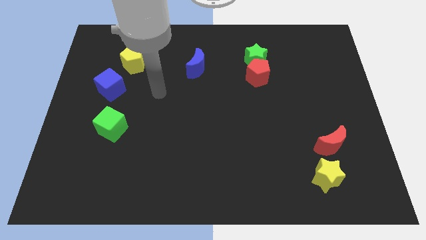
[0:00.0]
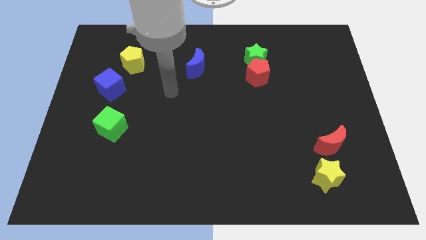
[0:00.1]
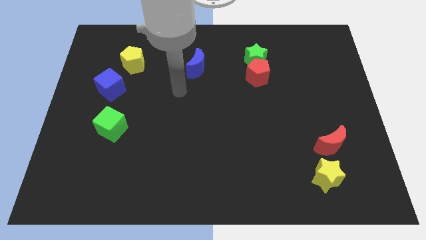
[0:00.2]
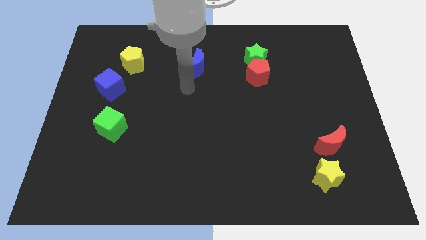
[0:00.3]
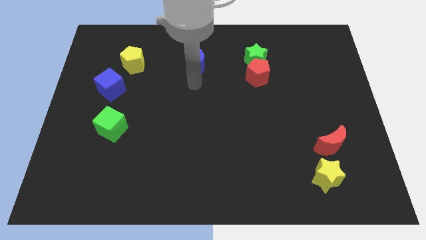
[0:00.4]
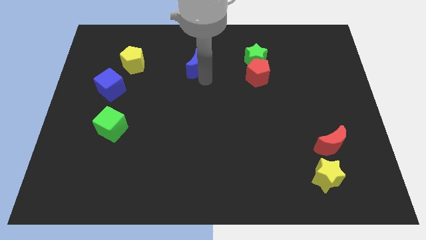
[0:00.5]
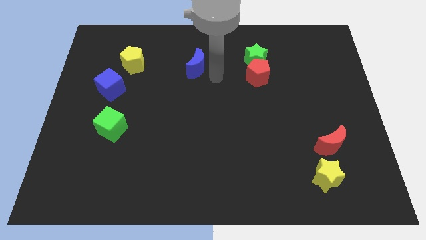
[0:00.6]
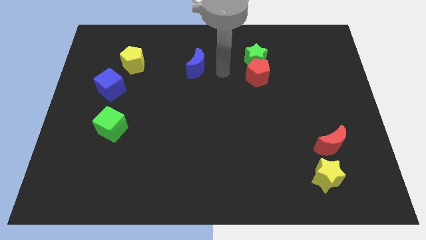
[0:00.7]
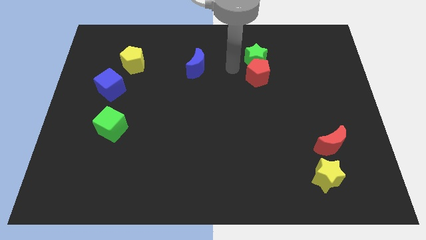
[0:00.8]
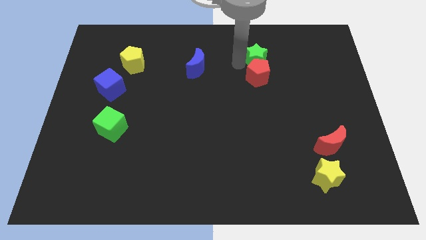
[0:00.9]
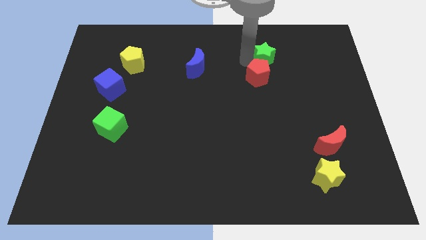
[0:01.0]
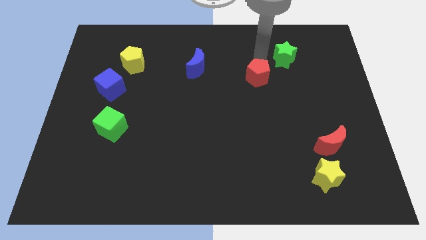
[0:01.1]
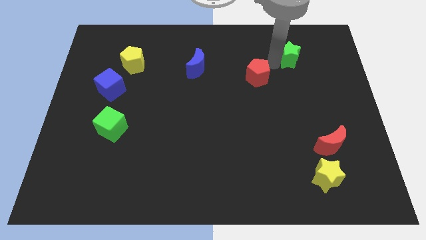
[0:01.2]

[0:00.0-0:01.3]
pull the red pentagon apart from the green star

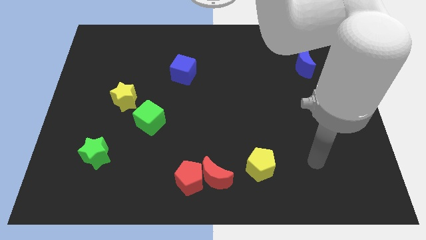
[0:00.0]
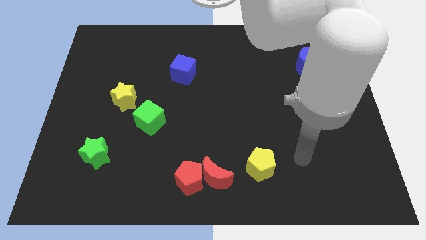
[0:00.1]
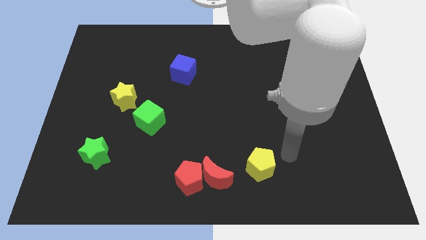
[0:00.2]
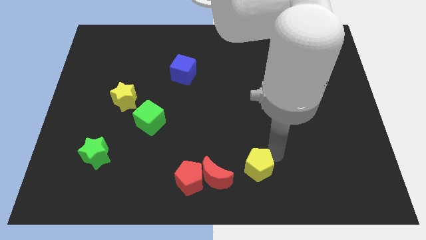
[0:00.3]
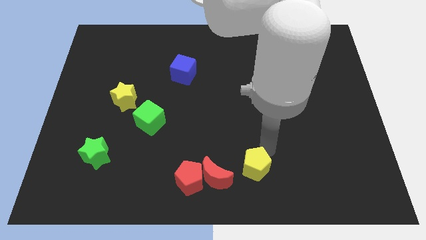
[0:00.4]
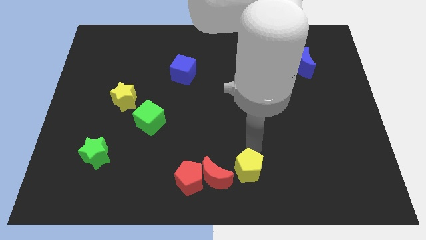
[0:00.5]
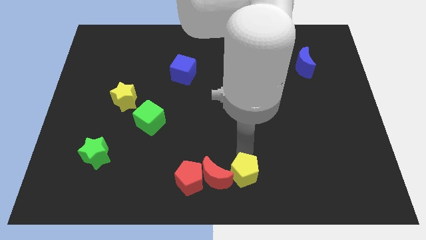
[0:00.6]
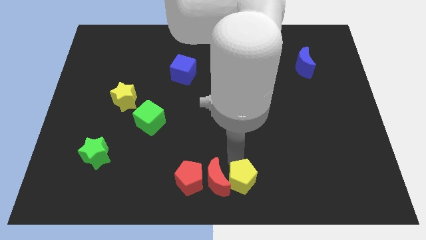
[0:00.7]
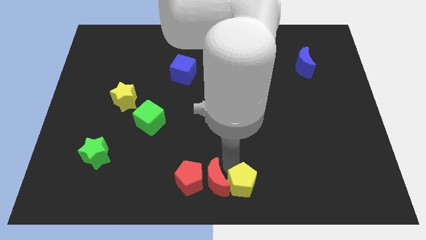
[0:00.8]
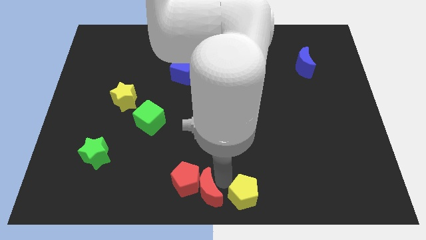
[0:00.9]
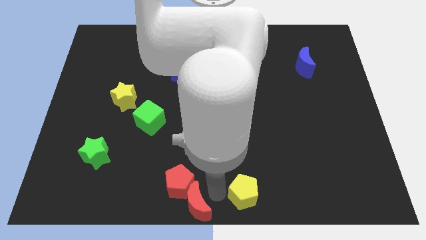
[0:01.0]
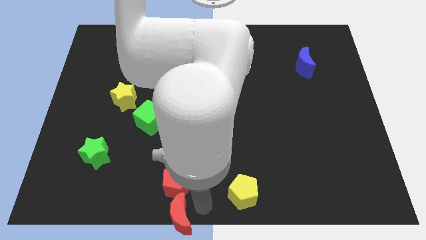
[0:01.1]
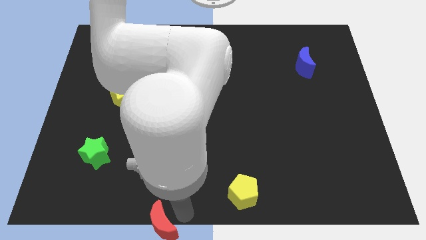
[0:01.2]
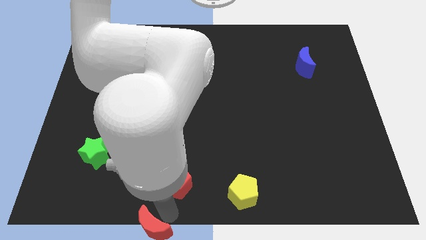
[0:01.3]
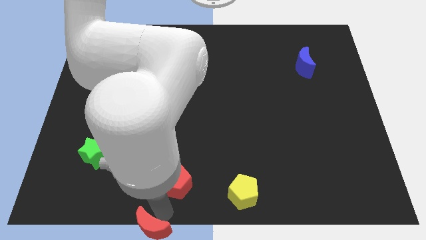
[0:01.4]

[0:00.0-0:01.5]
separate the red pentagon from the red moon

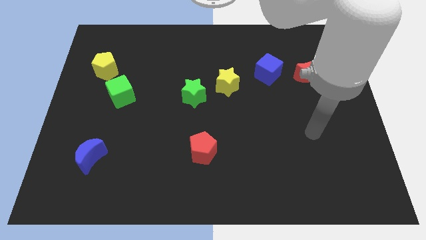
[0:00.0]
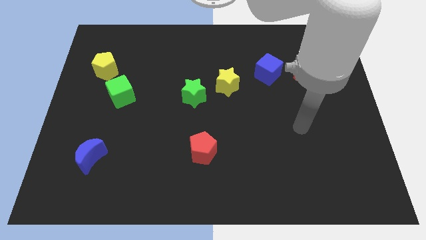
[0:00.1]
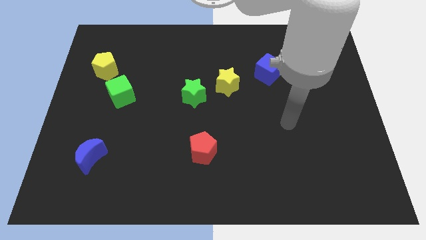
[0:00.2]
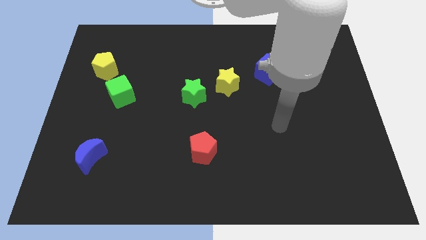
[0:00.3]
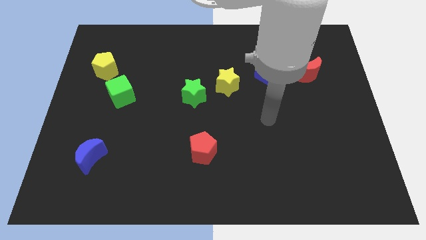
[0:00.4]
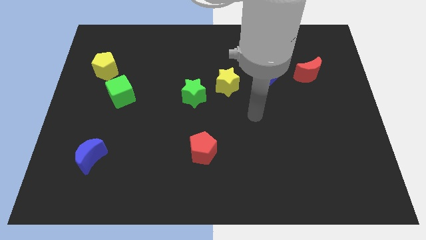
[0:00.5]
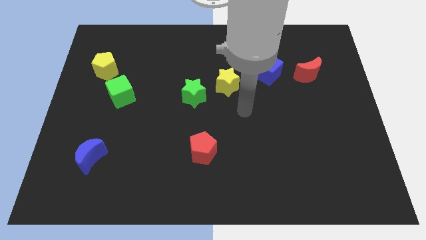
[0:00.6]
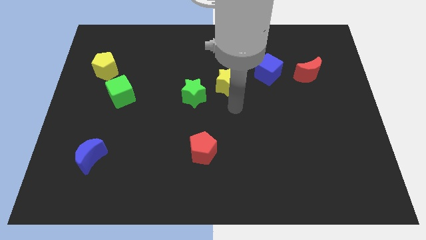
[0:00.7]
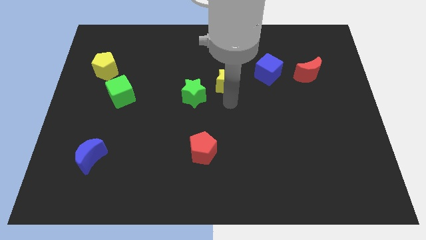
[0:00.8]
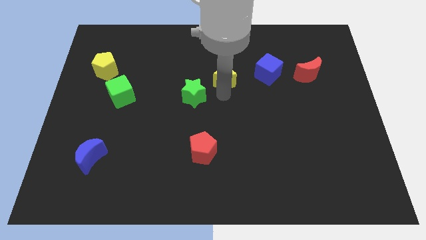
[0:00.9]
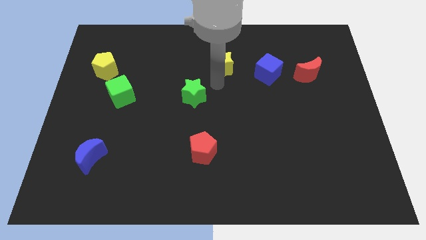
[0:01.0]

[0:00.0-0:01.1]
move the green star away from the yellow star

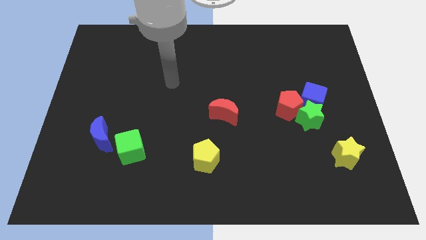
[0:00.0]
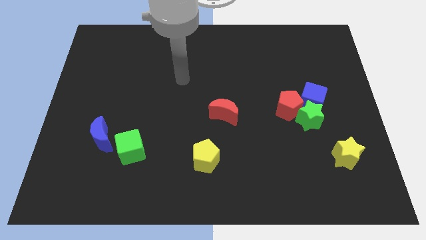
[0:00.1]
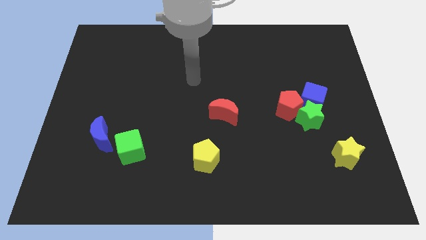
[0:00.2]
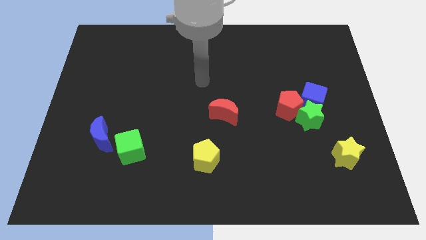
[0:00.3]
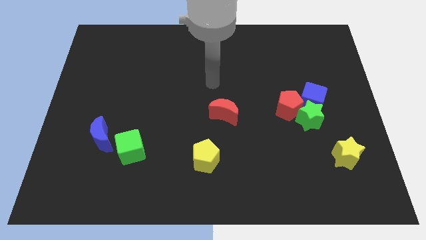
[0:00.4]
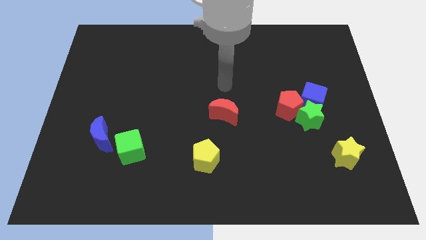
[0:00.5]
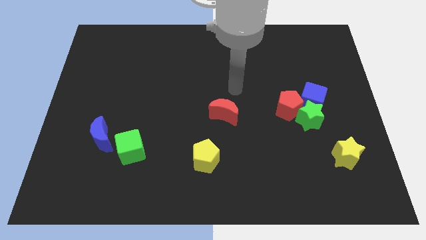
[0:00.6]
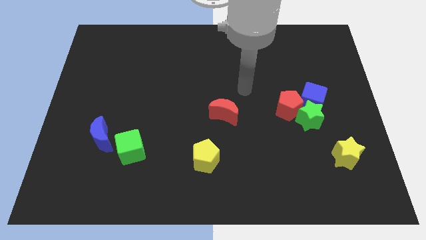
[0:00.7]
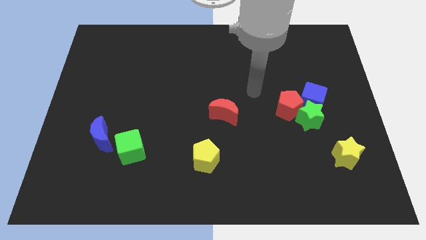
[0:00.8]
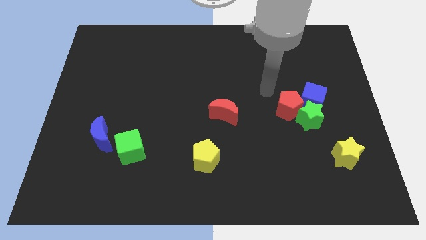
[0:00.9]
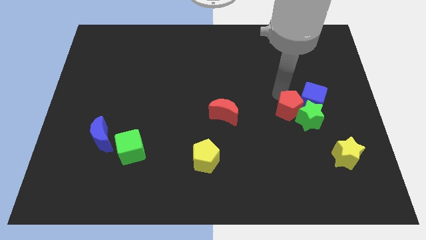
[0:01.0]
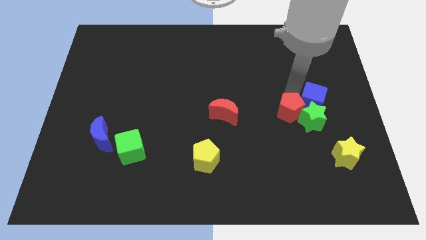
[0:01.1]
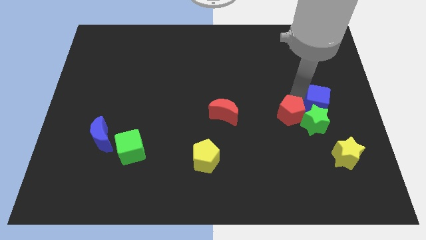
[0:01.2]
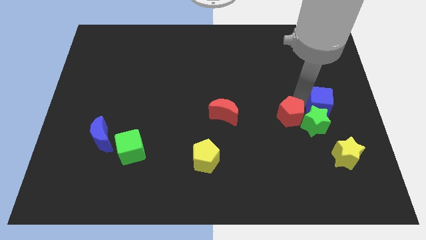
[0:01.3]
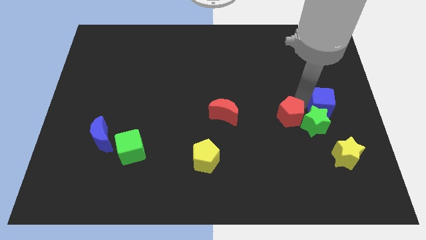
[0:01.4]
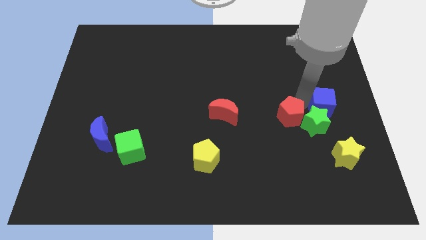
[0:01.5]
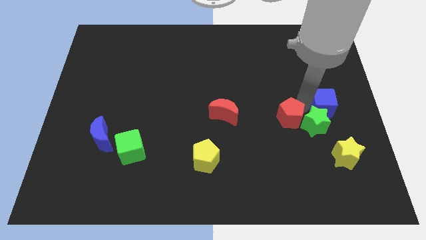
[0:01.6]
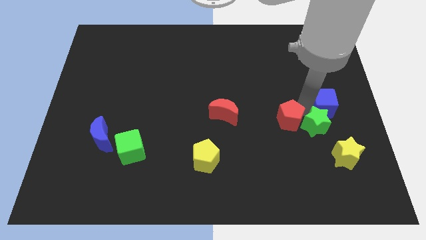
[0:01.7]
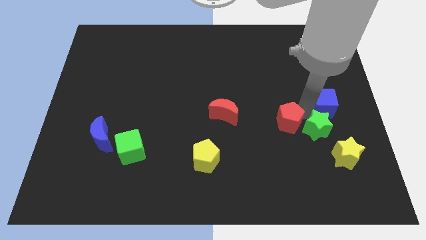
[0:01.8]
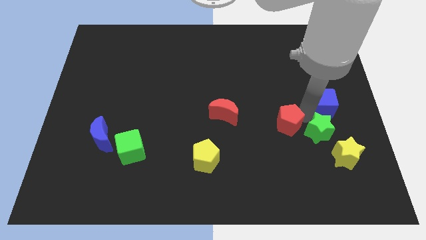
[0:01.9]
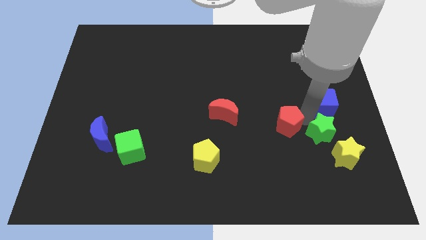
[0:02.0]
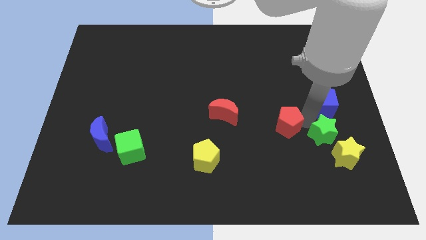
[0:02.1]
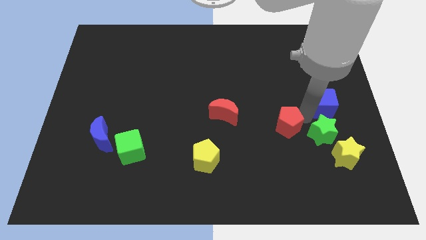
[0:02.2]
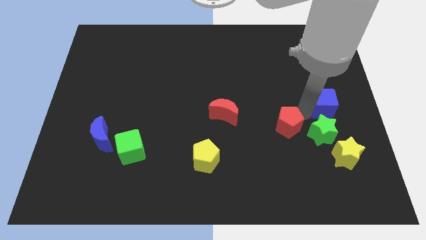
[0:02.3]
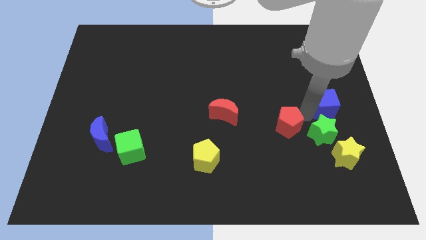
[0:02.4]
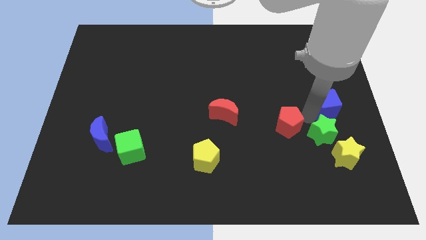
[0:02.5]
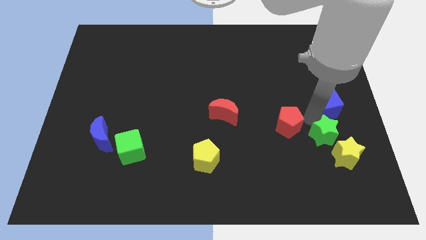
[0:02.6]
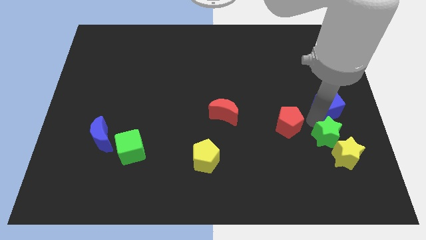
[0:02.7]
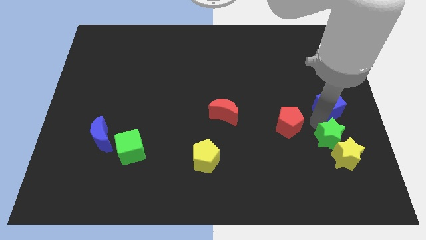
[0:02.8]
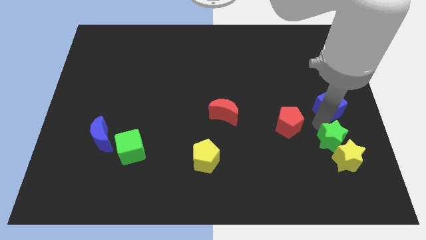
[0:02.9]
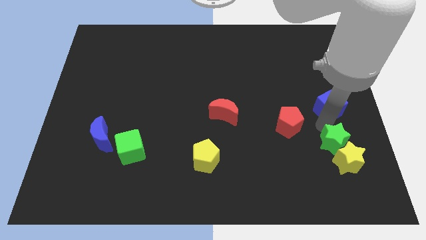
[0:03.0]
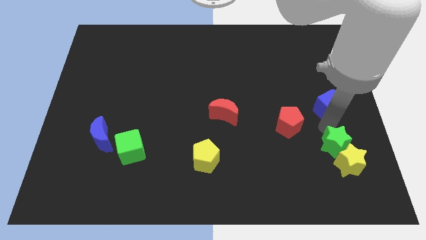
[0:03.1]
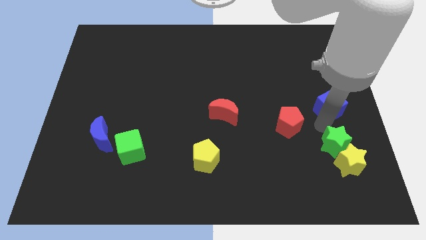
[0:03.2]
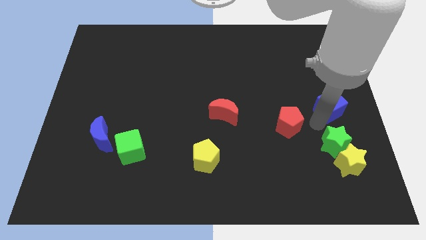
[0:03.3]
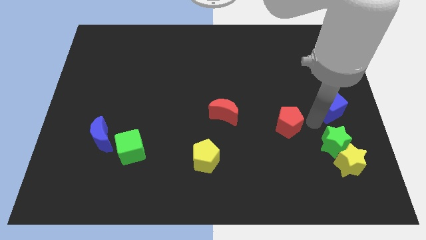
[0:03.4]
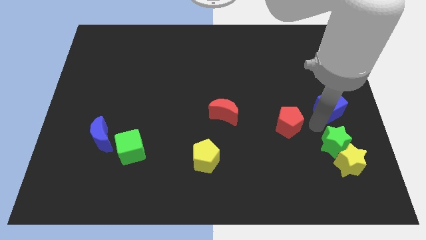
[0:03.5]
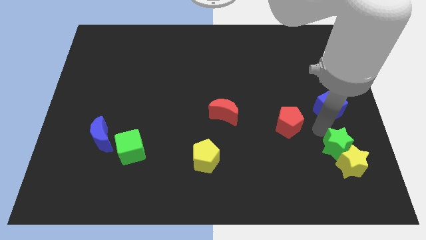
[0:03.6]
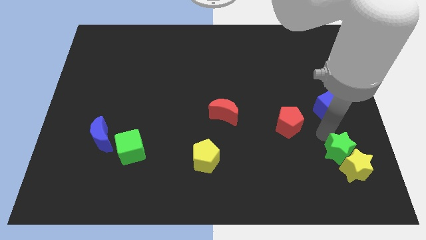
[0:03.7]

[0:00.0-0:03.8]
move the green star away from the blue cube and red pentagon

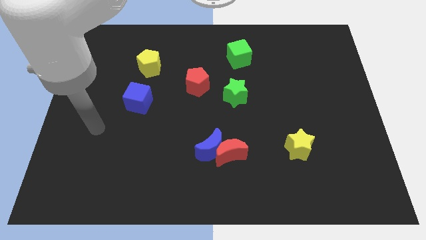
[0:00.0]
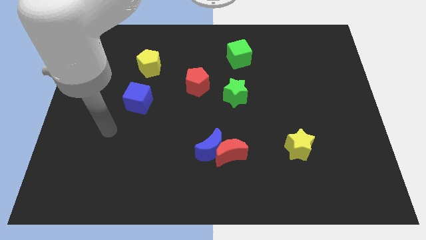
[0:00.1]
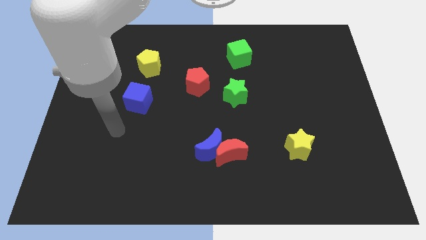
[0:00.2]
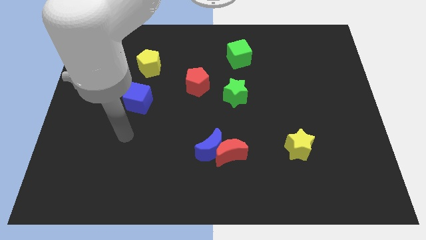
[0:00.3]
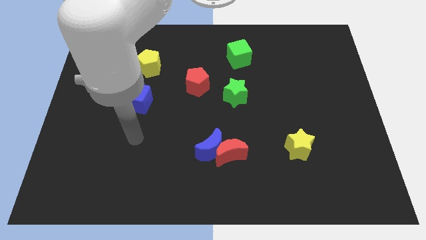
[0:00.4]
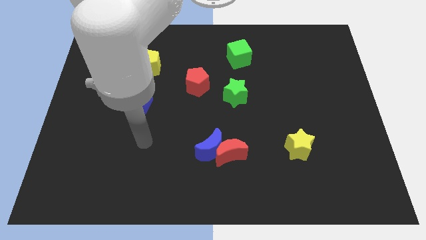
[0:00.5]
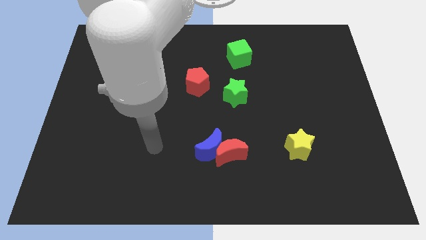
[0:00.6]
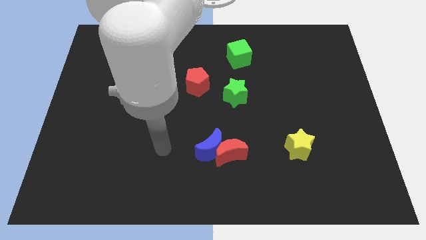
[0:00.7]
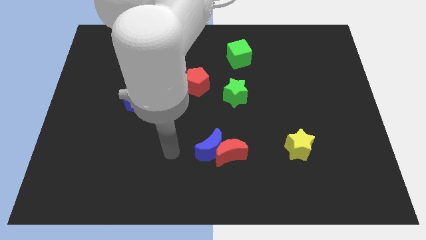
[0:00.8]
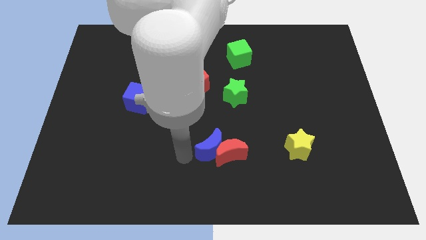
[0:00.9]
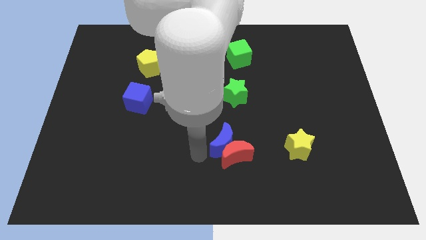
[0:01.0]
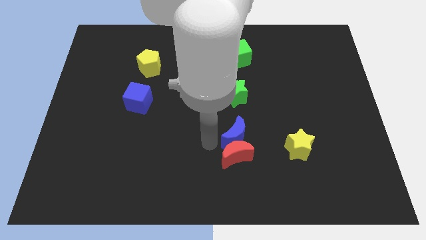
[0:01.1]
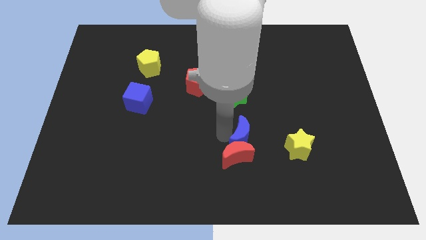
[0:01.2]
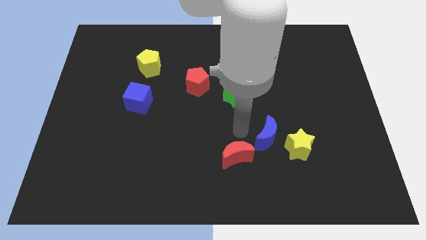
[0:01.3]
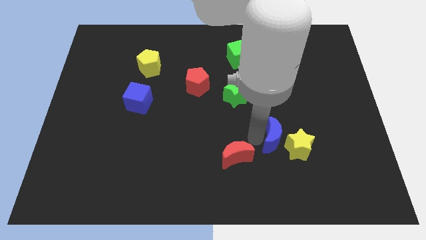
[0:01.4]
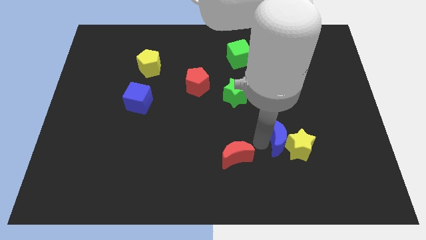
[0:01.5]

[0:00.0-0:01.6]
separate the red moon from the blue moon
